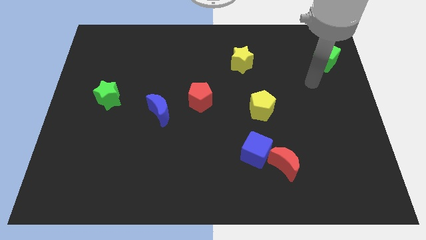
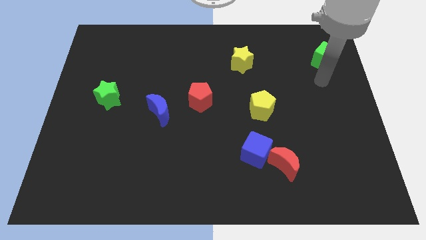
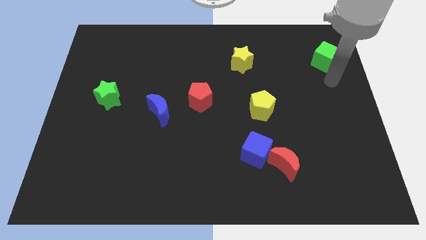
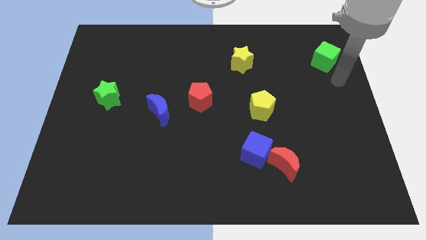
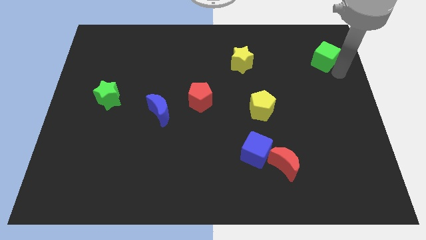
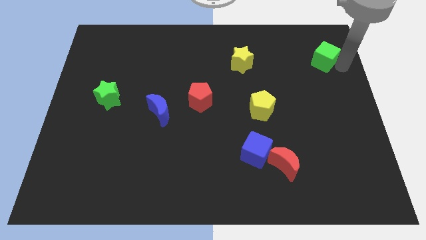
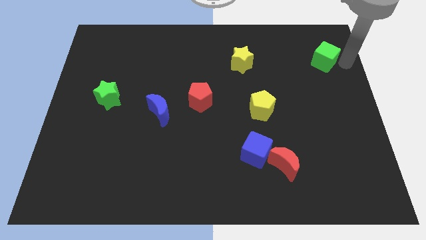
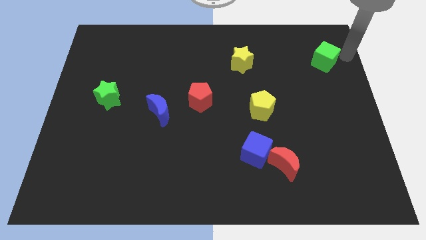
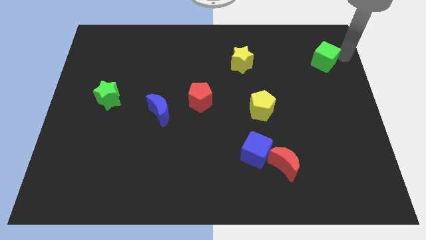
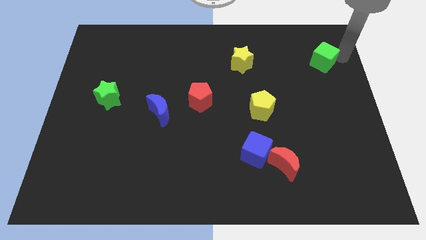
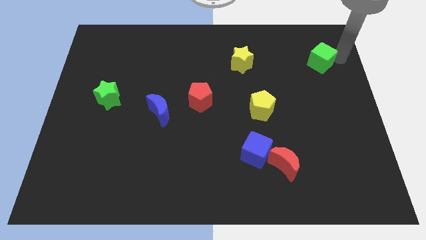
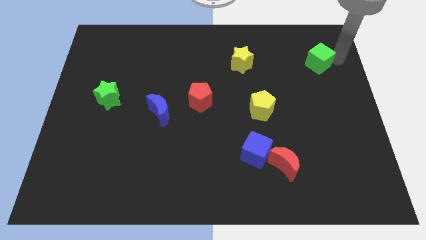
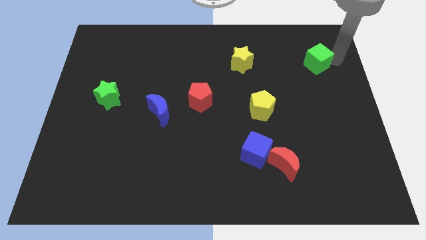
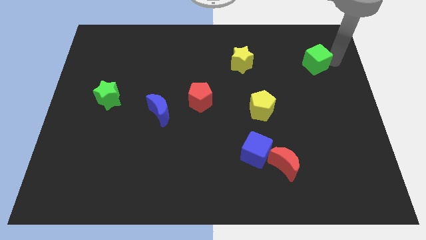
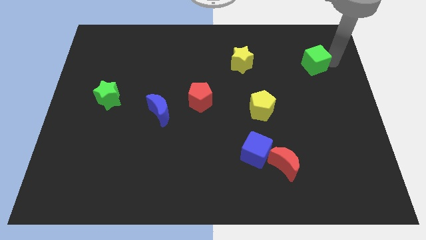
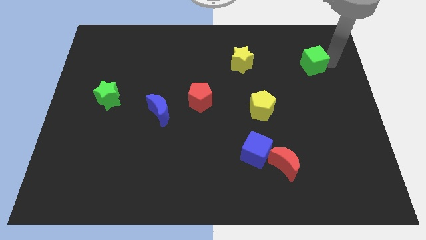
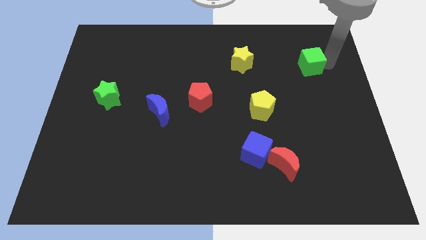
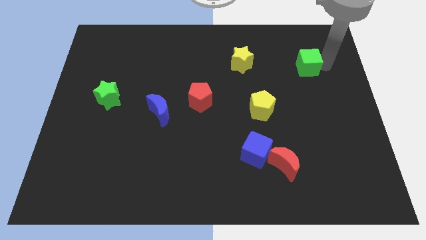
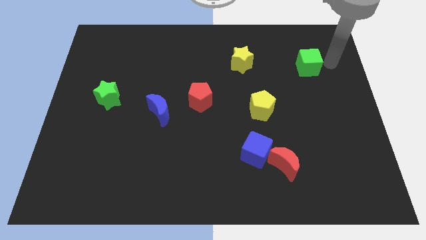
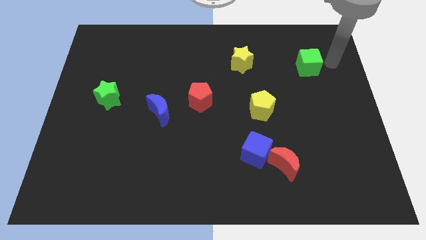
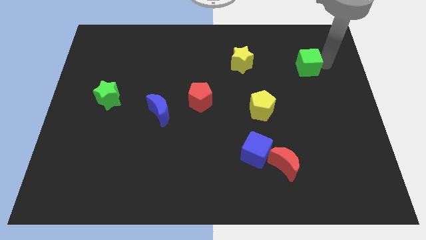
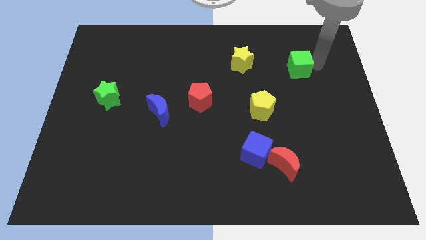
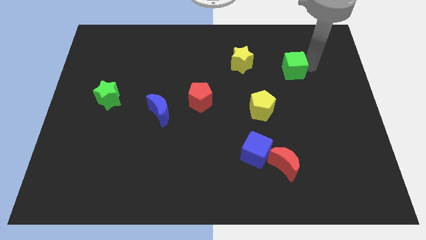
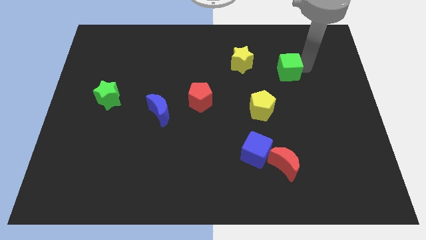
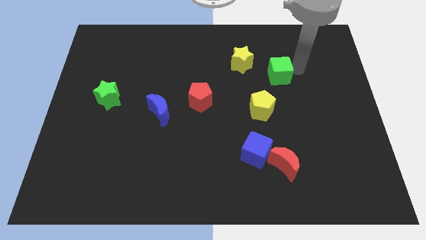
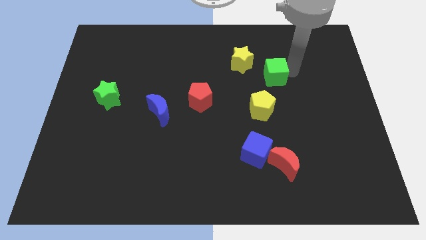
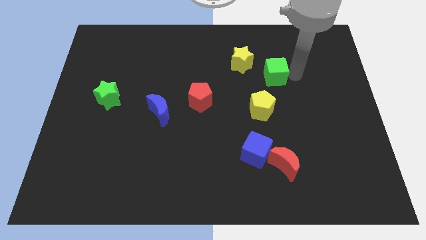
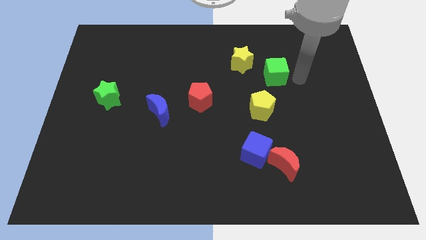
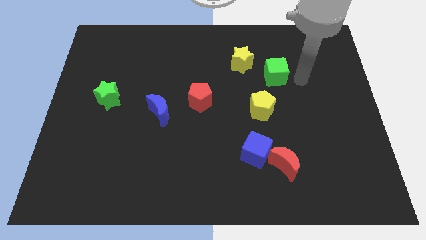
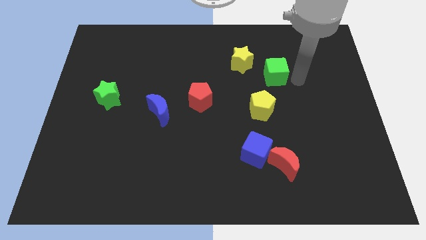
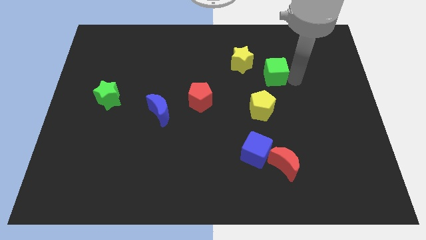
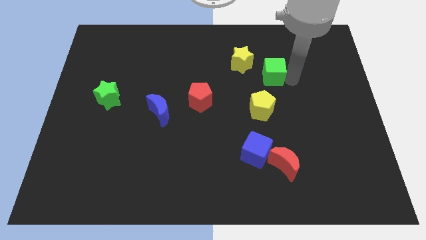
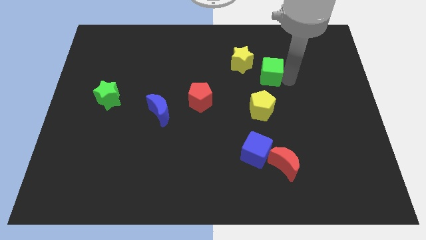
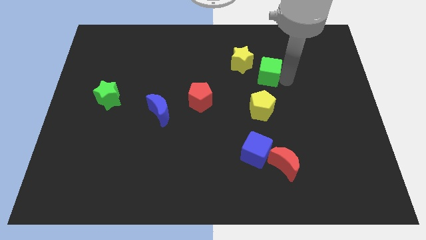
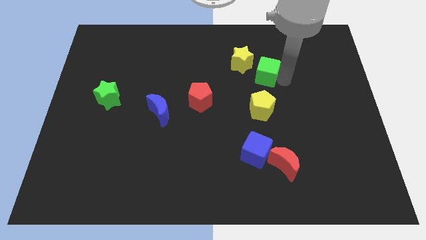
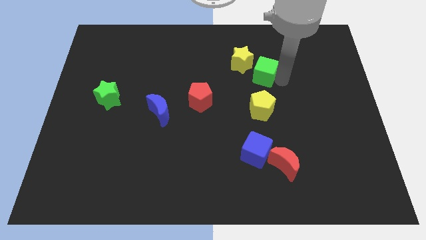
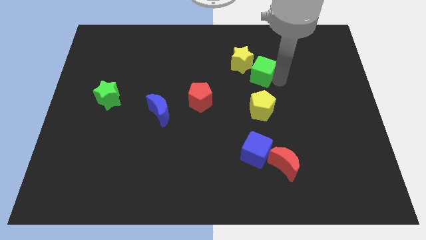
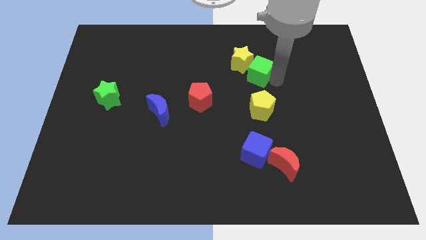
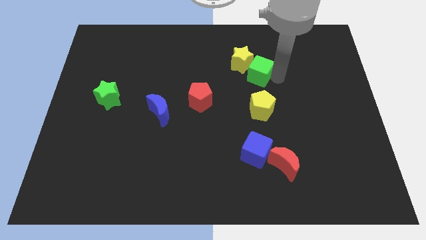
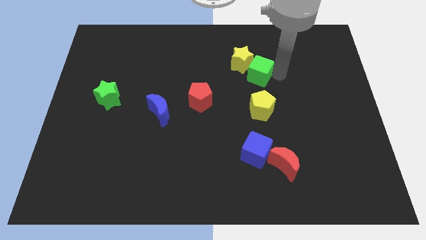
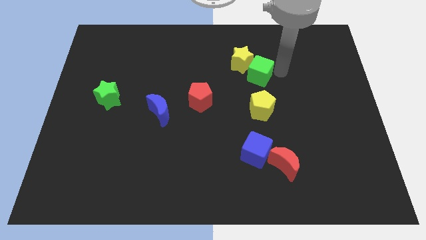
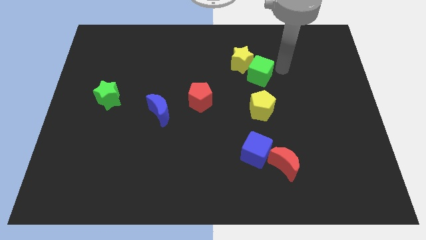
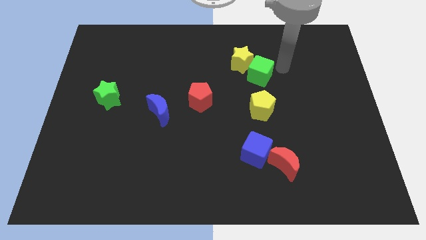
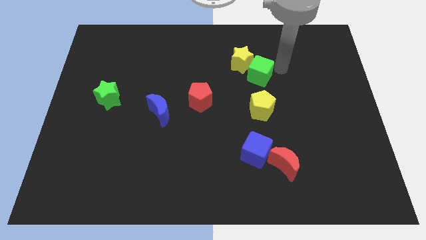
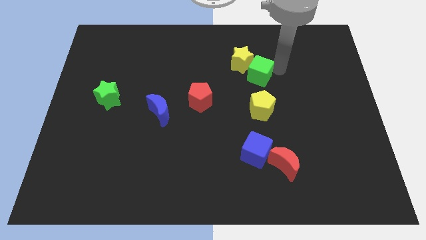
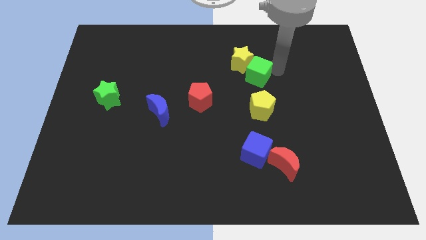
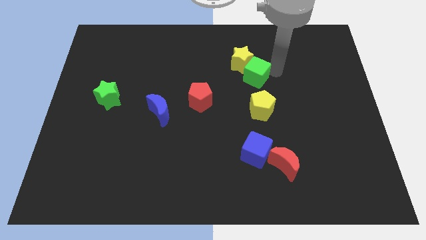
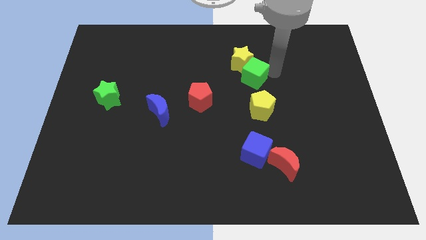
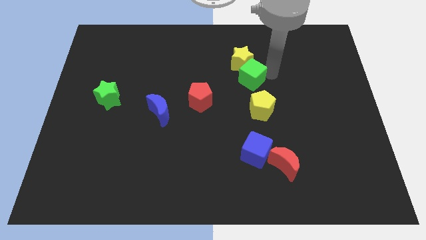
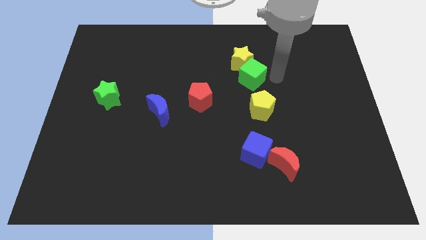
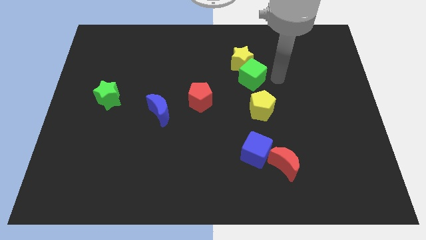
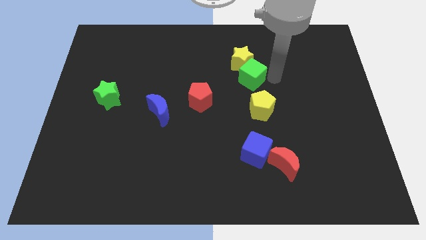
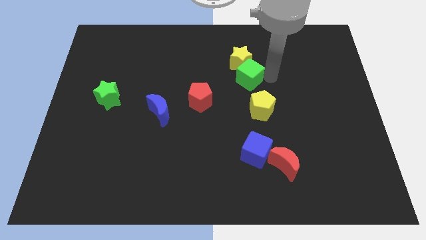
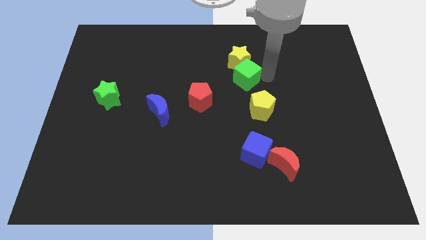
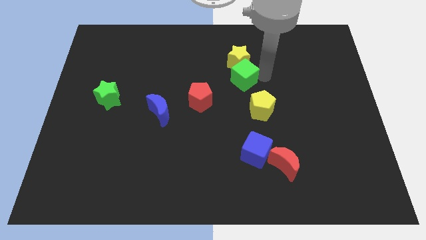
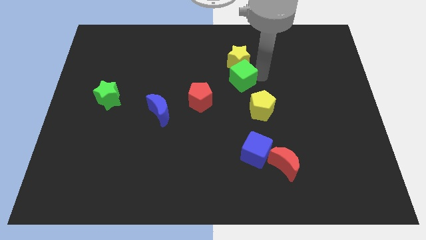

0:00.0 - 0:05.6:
move the green cube diagonally down and to the left of the yellow star

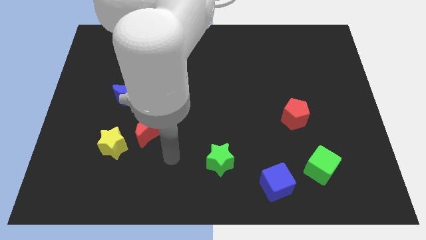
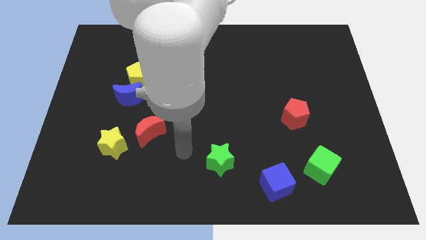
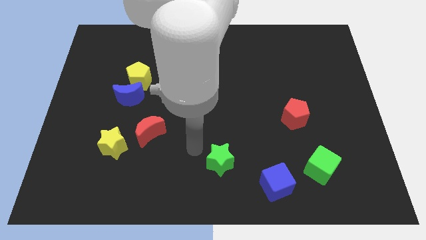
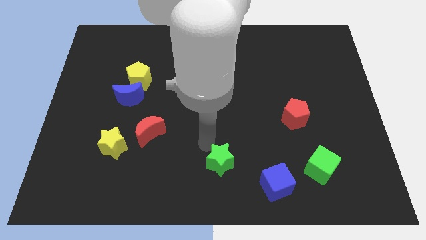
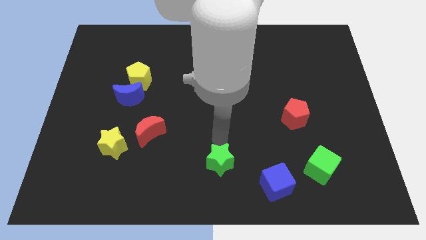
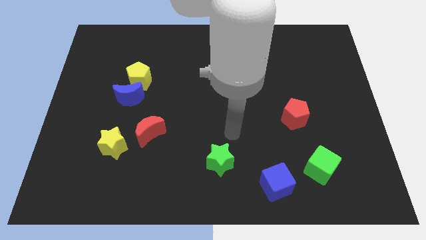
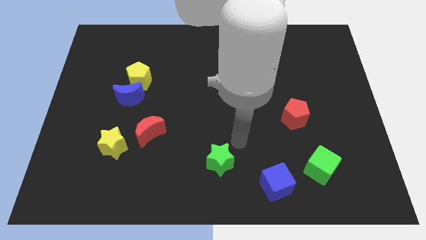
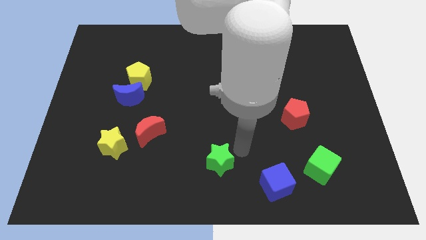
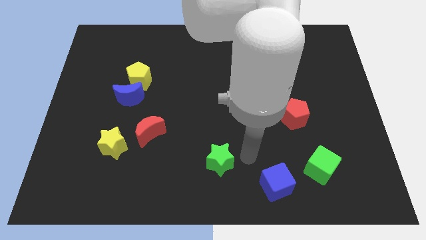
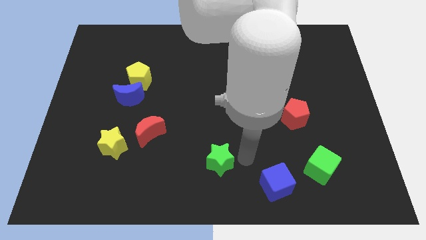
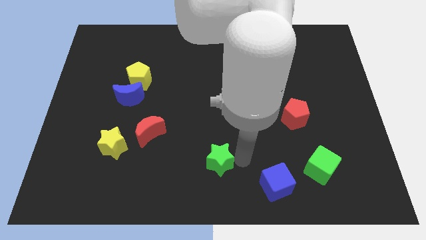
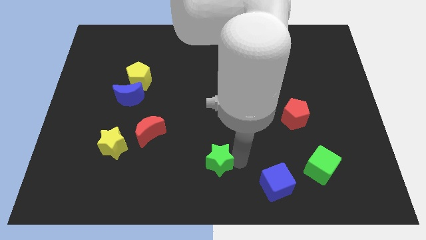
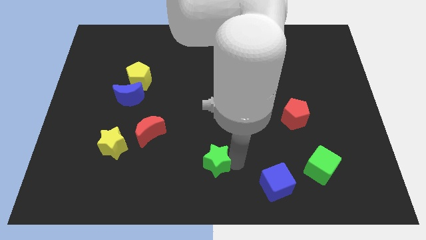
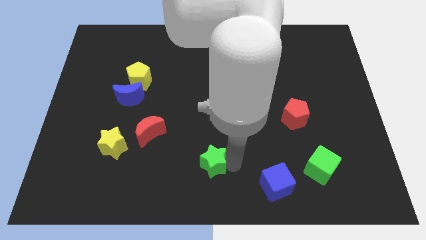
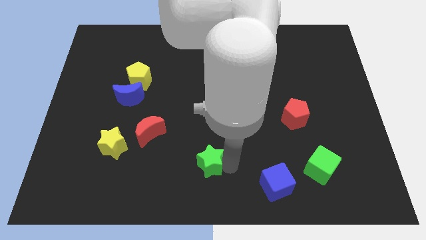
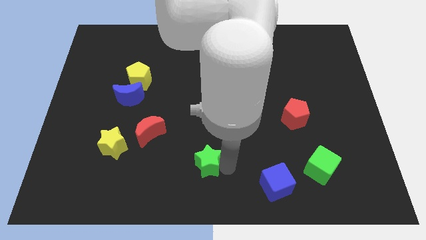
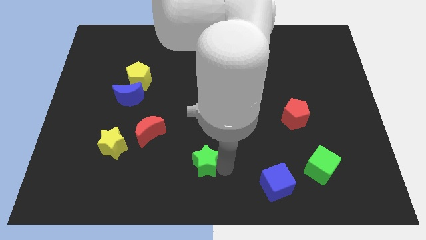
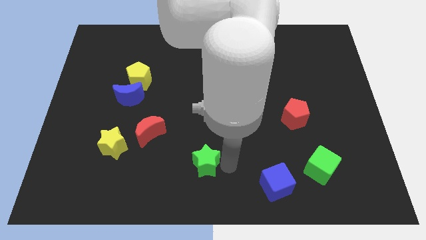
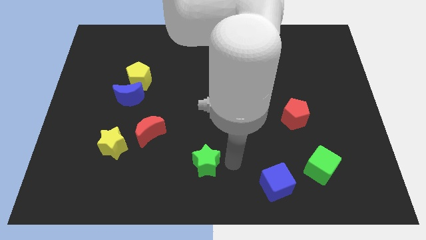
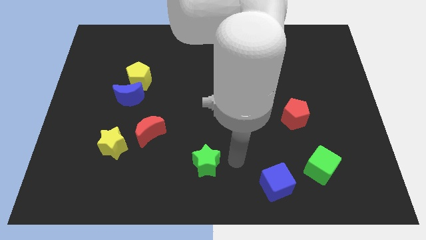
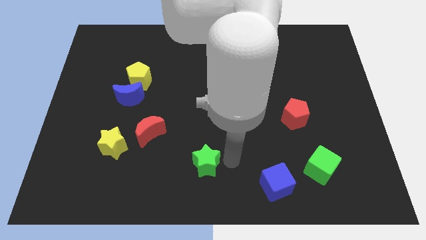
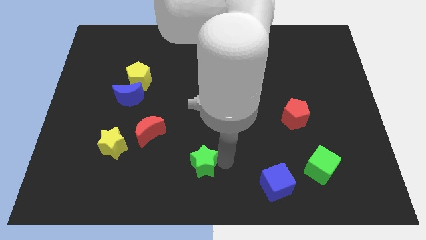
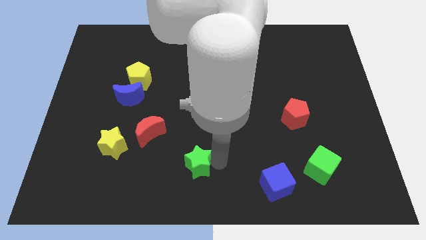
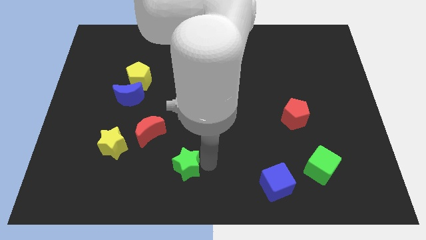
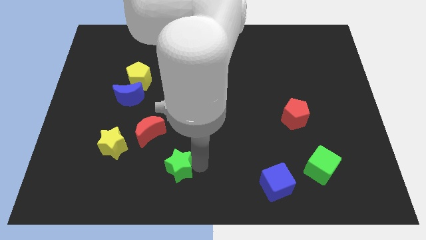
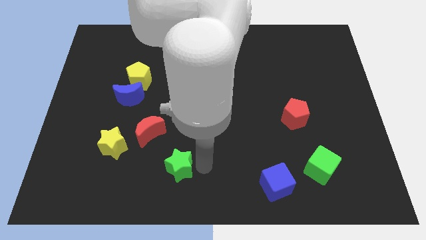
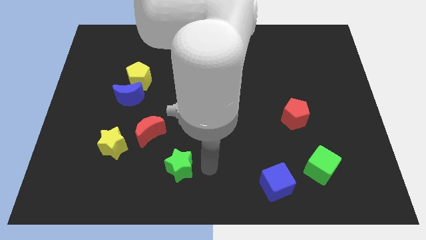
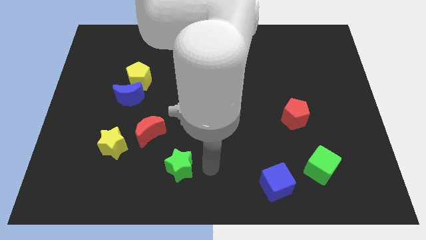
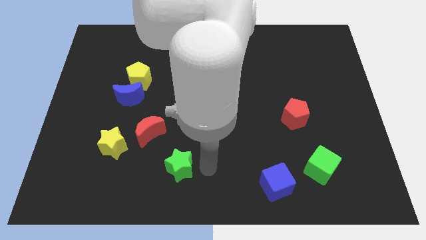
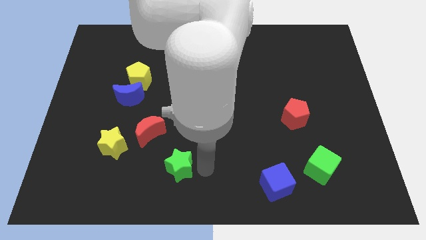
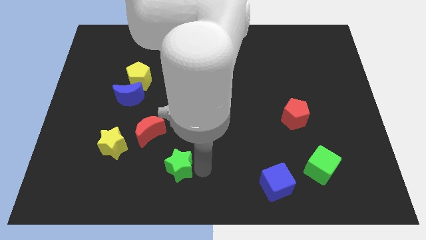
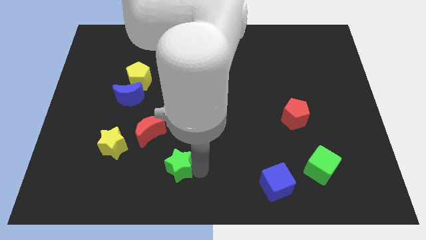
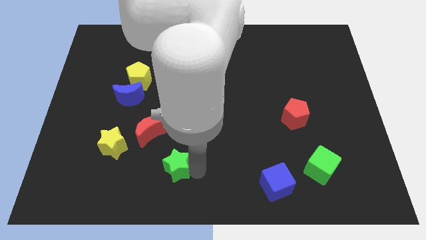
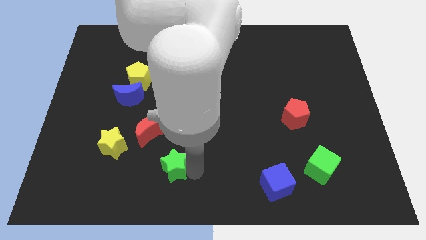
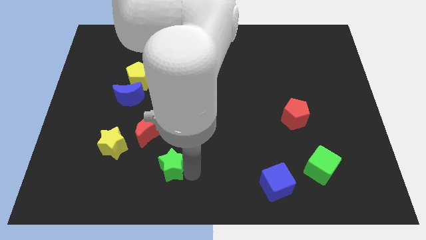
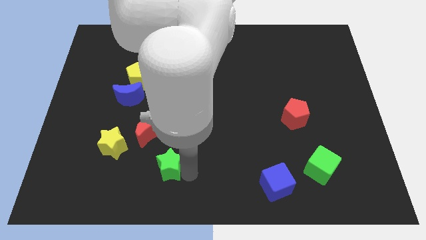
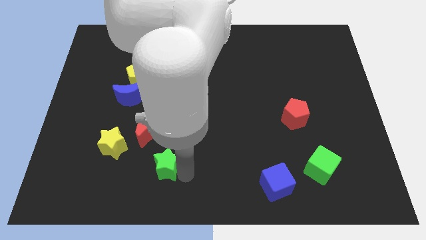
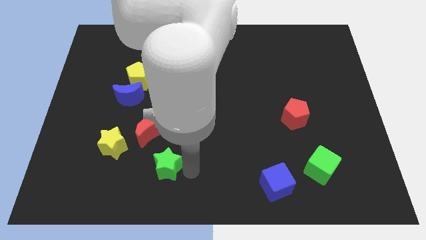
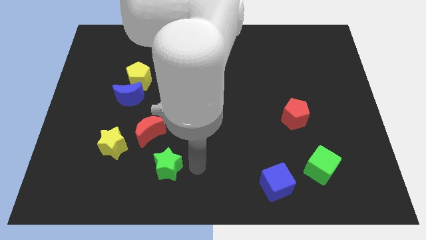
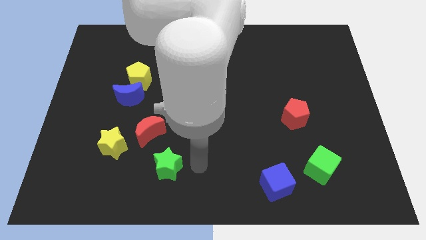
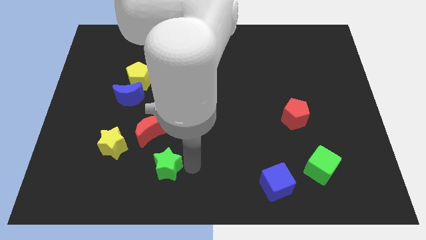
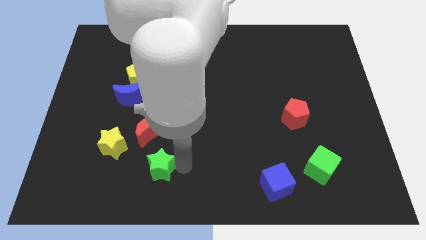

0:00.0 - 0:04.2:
put the green star to the bottom right side of the yellow star
